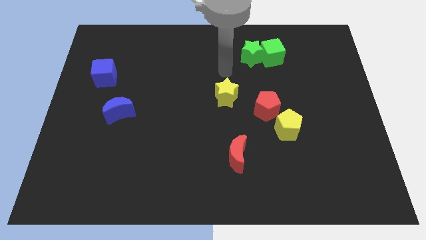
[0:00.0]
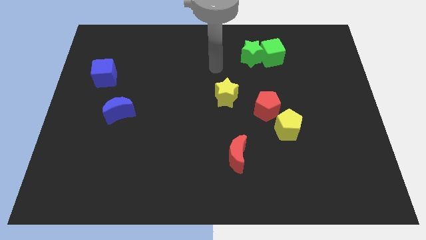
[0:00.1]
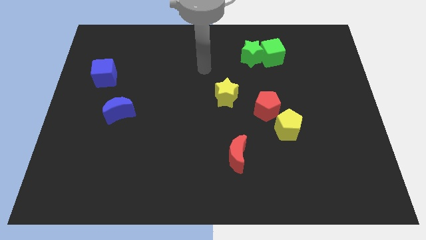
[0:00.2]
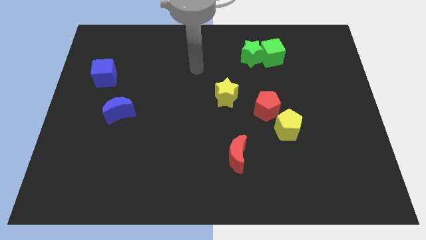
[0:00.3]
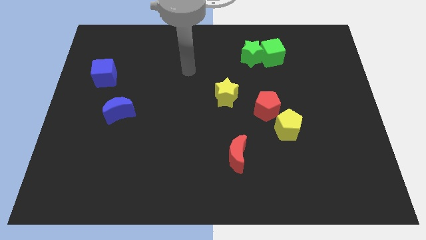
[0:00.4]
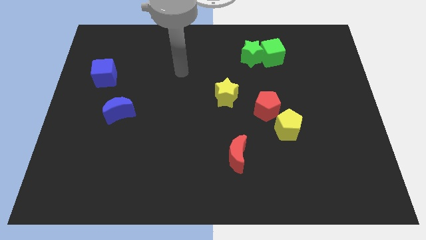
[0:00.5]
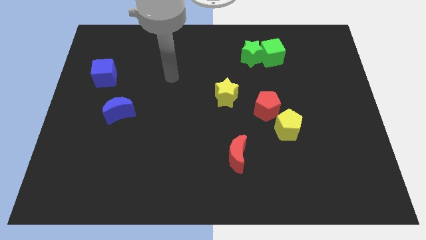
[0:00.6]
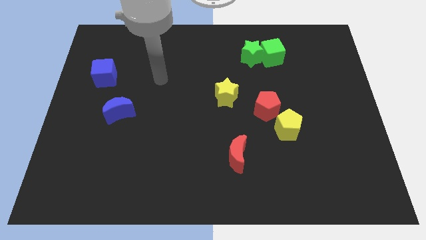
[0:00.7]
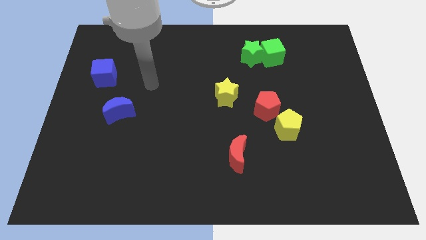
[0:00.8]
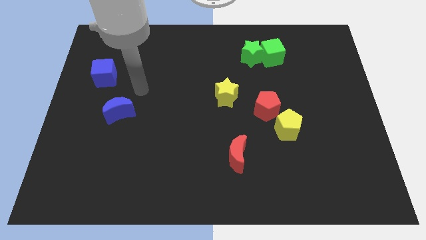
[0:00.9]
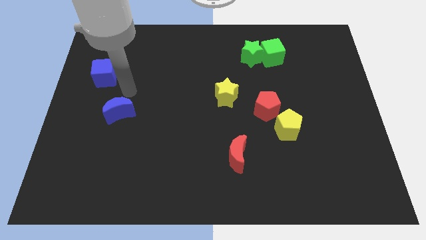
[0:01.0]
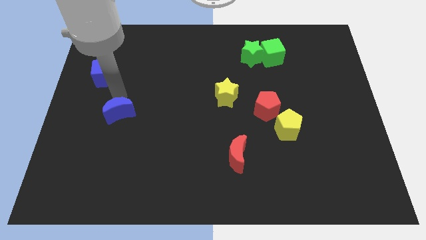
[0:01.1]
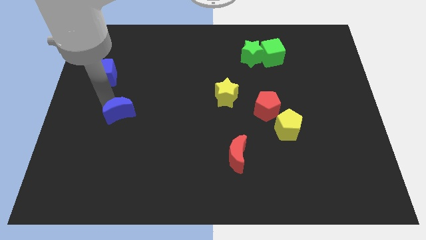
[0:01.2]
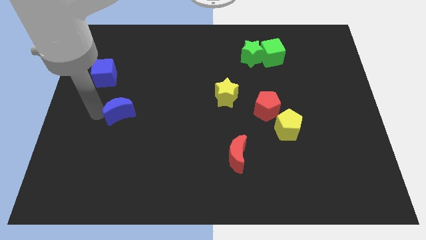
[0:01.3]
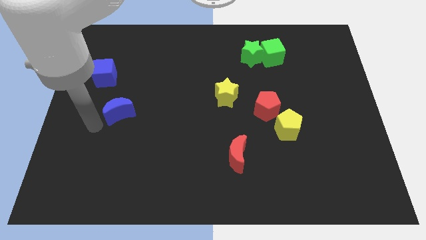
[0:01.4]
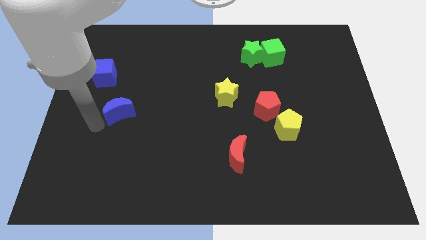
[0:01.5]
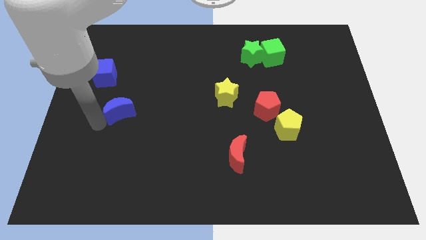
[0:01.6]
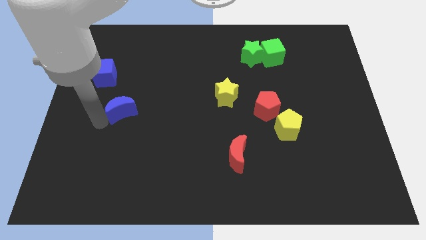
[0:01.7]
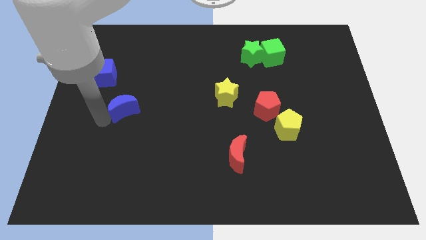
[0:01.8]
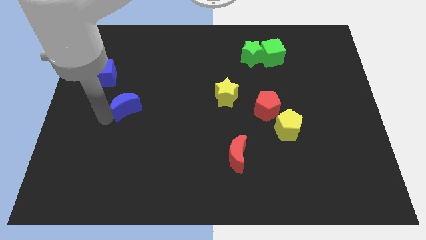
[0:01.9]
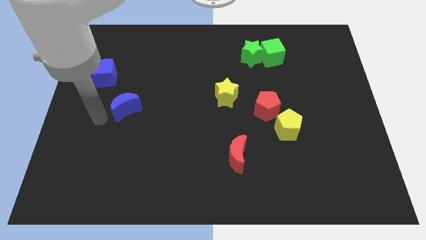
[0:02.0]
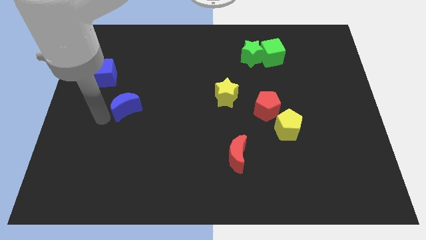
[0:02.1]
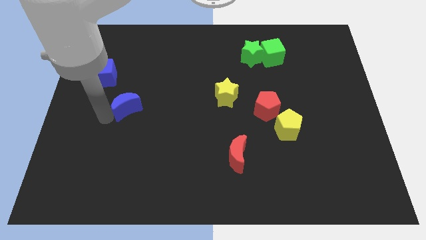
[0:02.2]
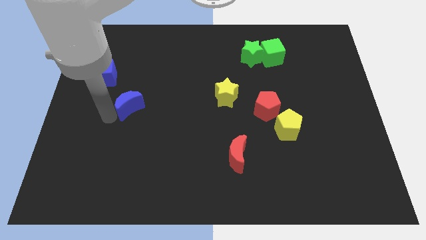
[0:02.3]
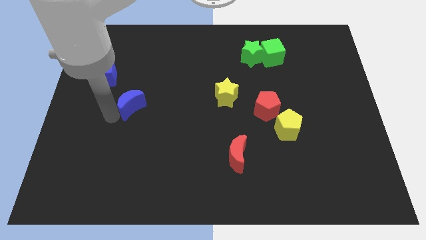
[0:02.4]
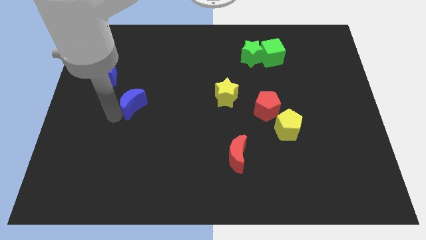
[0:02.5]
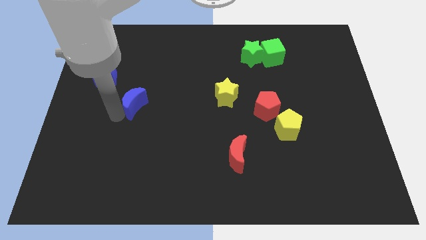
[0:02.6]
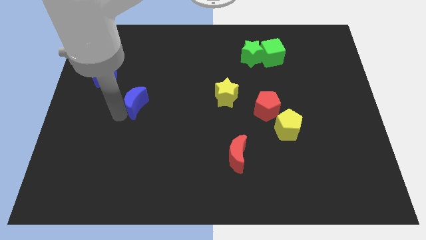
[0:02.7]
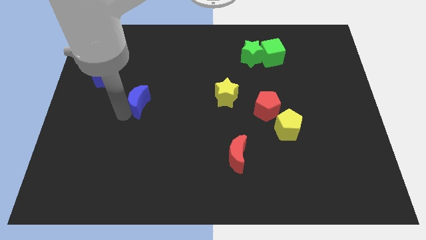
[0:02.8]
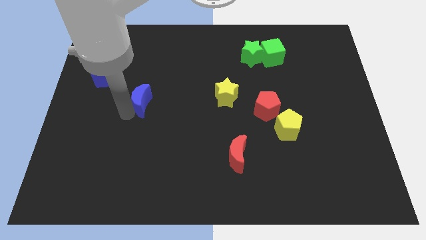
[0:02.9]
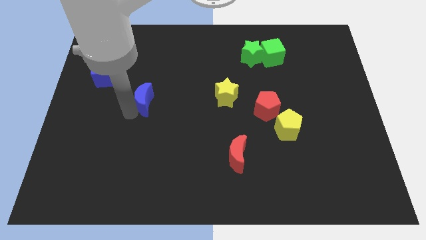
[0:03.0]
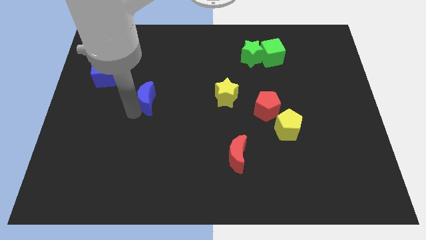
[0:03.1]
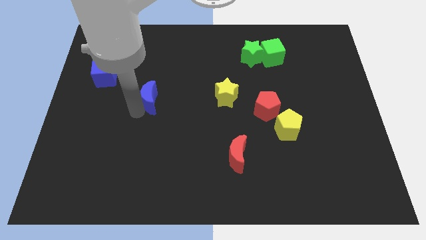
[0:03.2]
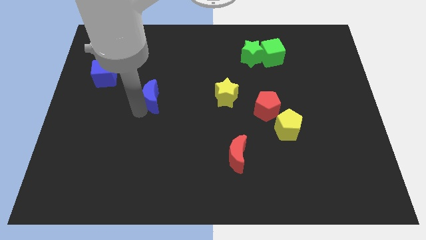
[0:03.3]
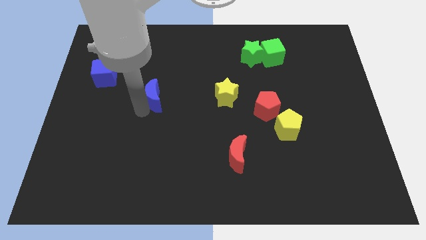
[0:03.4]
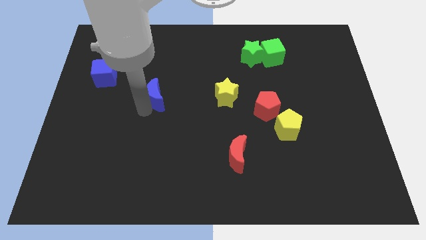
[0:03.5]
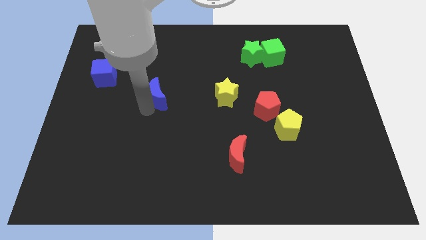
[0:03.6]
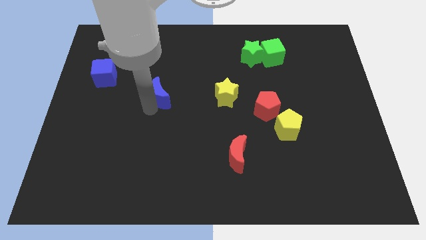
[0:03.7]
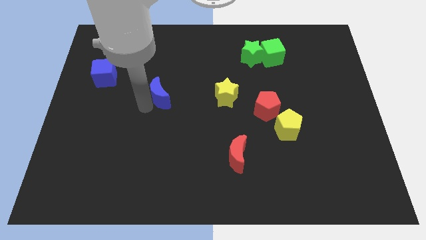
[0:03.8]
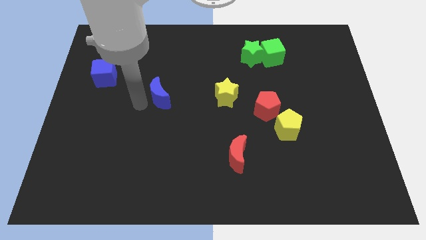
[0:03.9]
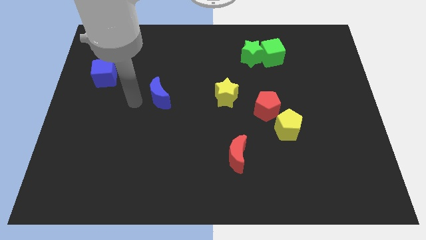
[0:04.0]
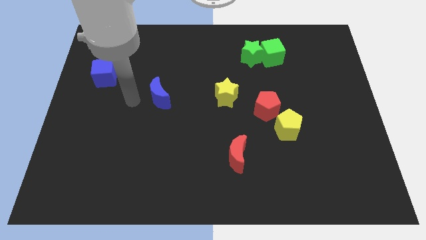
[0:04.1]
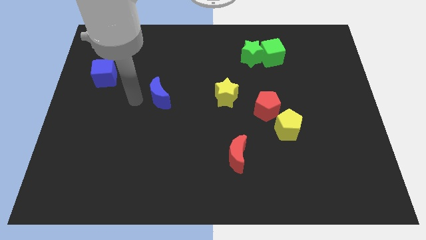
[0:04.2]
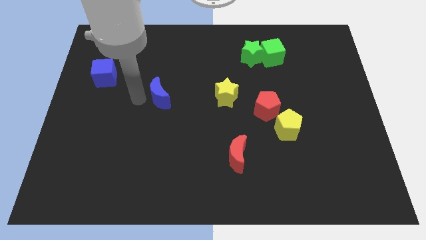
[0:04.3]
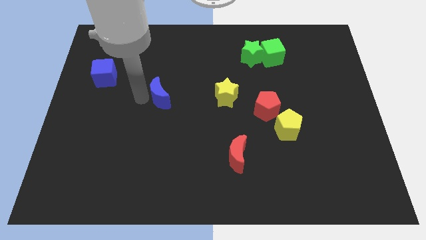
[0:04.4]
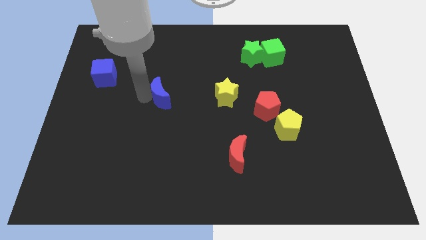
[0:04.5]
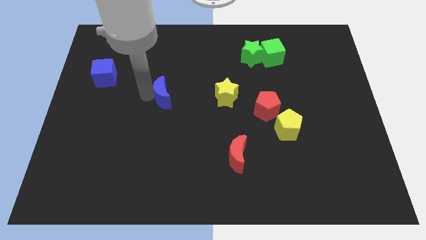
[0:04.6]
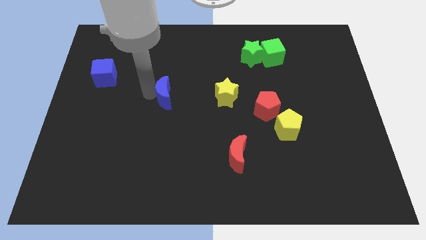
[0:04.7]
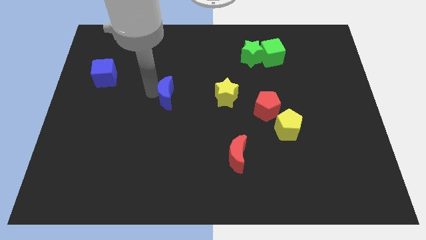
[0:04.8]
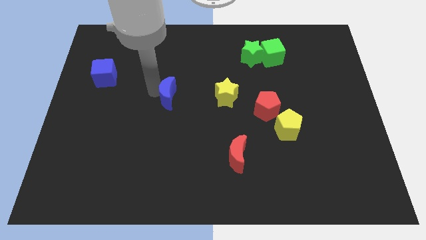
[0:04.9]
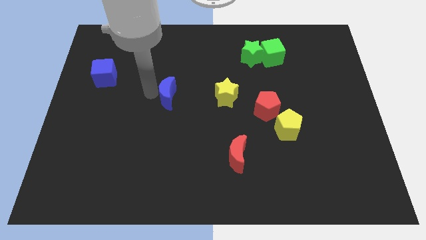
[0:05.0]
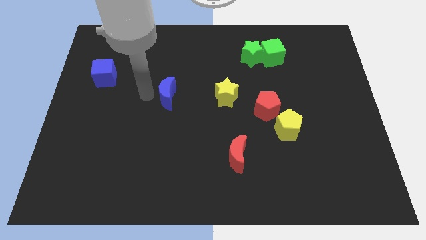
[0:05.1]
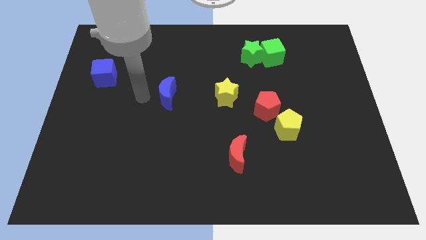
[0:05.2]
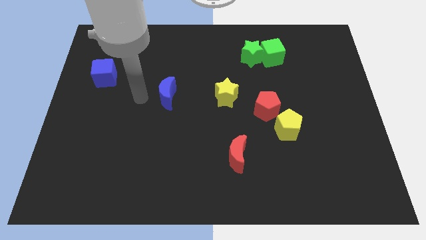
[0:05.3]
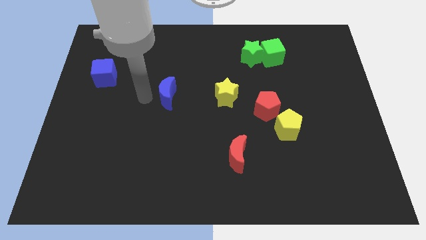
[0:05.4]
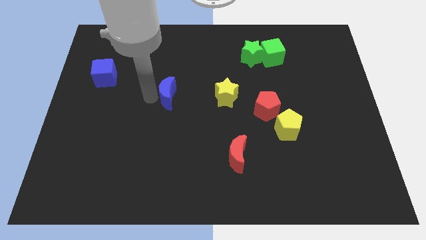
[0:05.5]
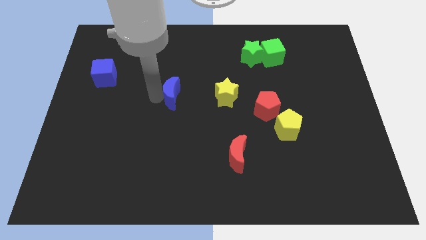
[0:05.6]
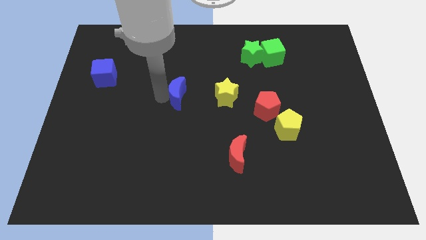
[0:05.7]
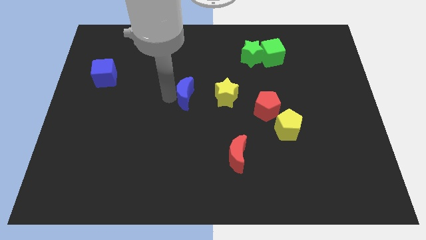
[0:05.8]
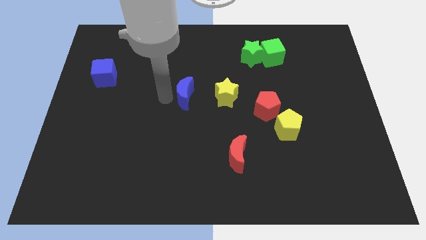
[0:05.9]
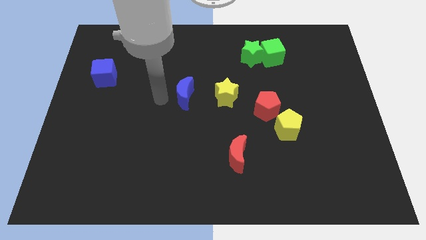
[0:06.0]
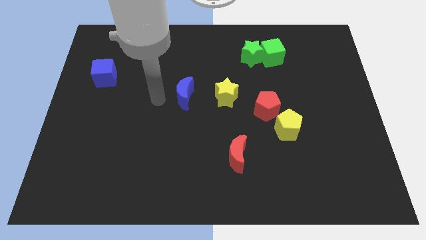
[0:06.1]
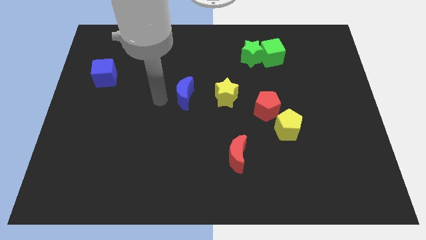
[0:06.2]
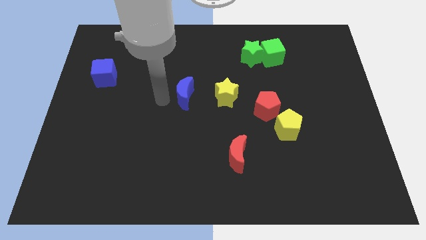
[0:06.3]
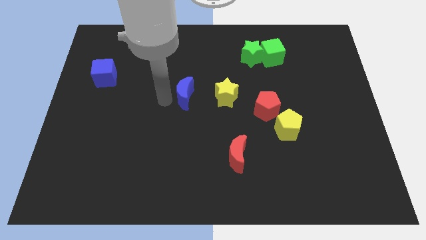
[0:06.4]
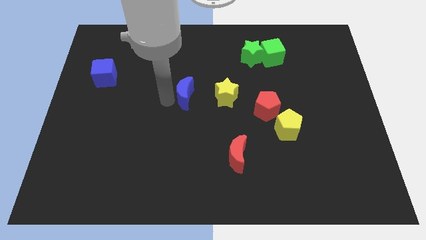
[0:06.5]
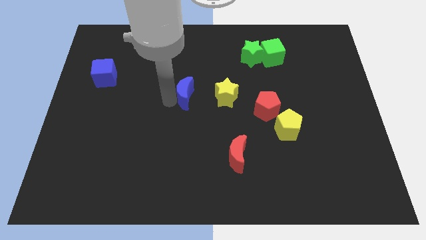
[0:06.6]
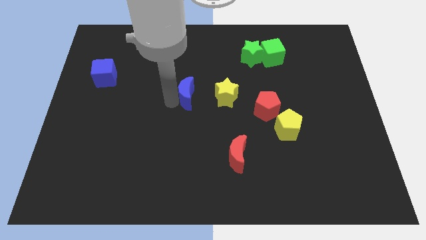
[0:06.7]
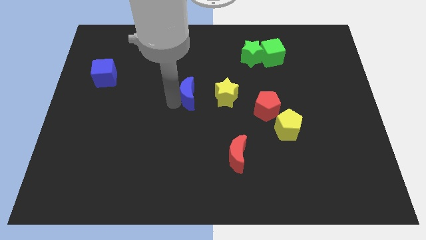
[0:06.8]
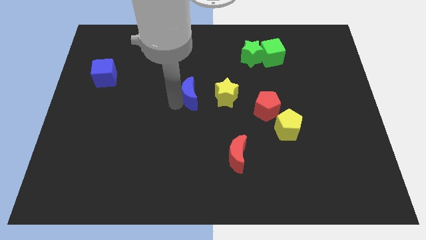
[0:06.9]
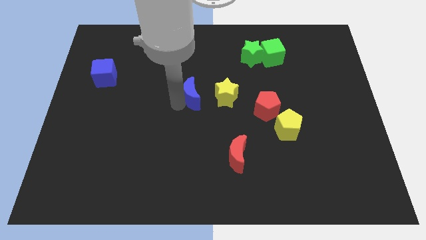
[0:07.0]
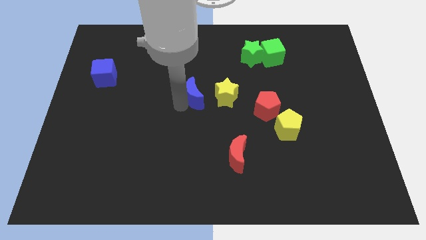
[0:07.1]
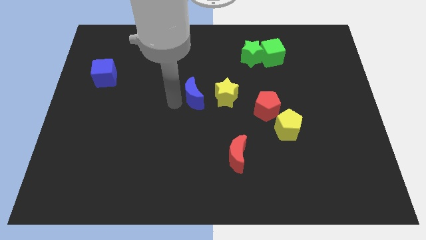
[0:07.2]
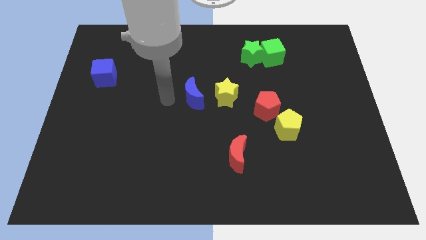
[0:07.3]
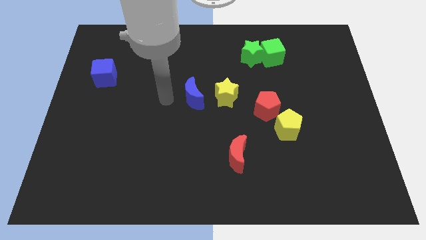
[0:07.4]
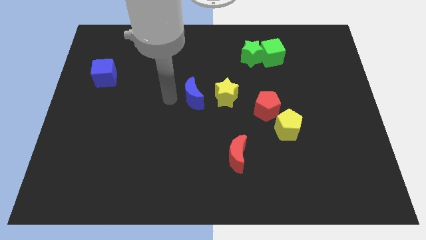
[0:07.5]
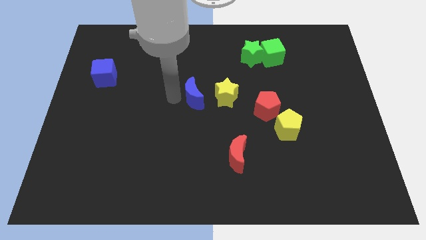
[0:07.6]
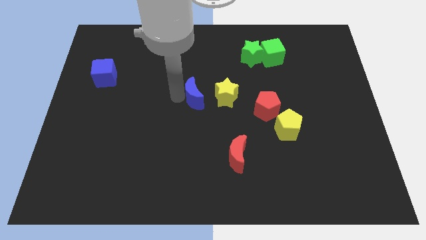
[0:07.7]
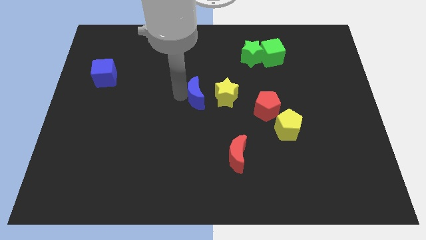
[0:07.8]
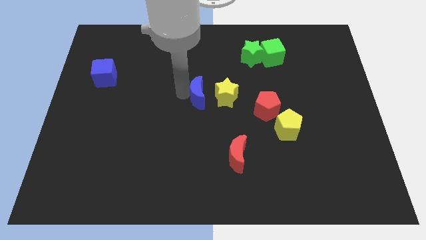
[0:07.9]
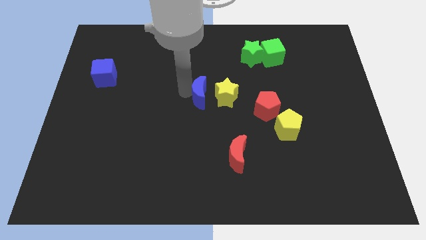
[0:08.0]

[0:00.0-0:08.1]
push the blue moon to the yellow star
